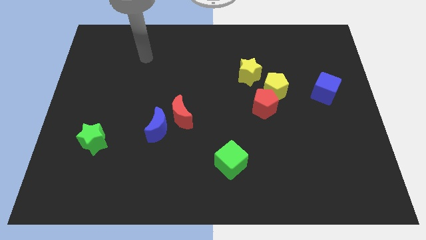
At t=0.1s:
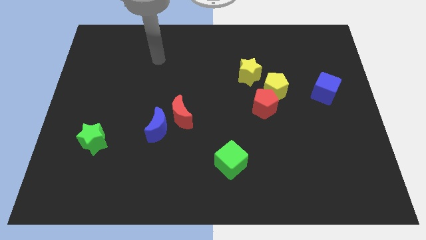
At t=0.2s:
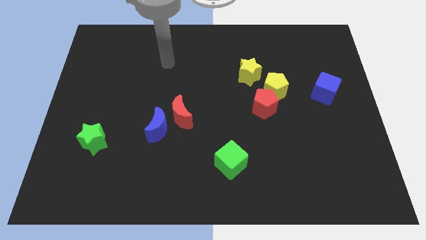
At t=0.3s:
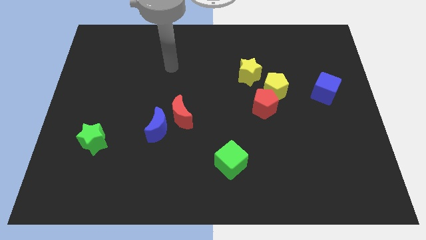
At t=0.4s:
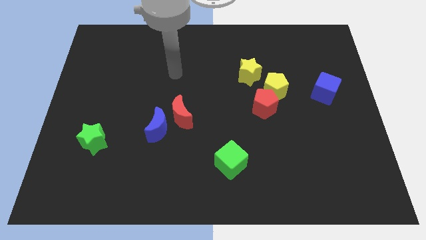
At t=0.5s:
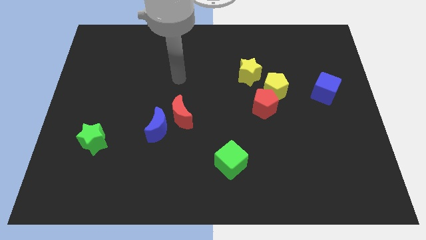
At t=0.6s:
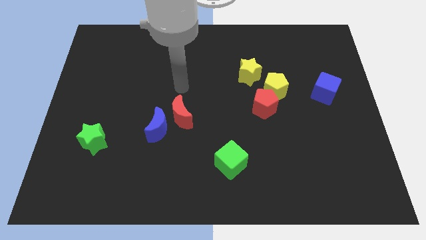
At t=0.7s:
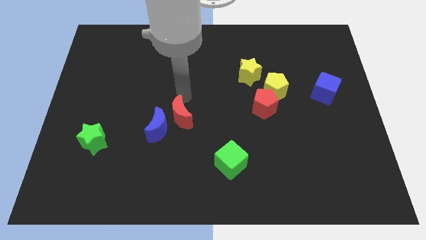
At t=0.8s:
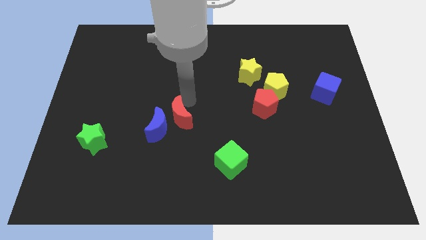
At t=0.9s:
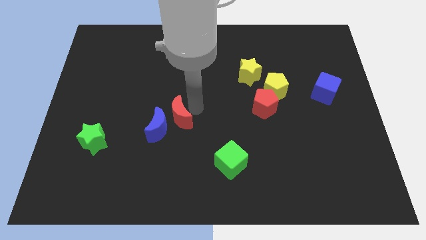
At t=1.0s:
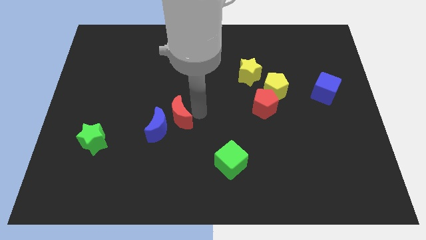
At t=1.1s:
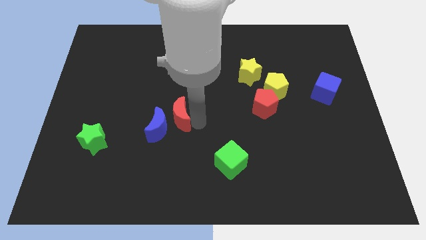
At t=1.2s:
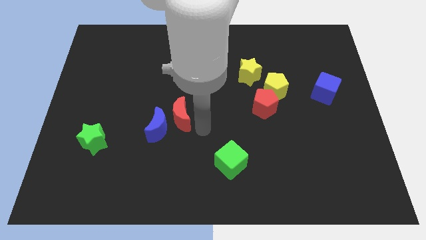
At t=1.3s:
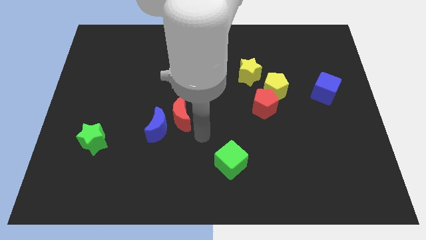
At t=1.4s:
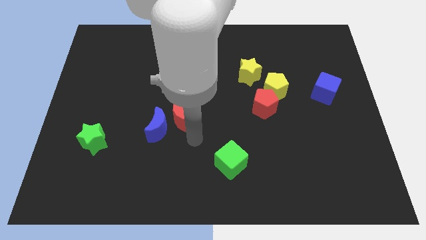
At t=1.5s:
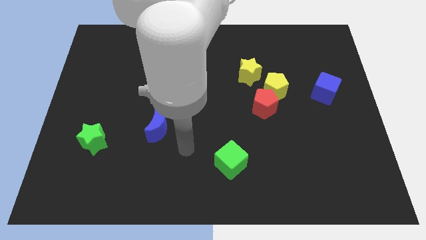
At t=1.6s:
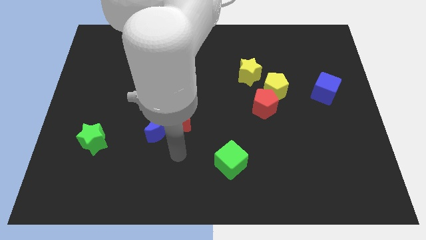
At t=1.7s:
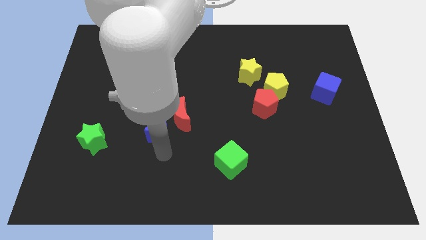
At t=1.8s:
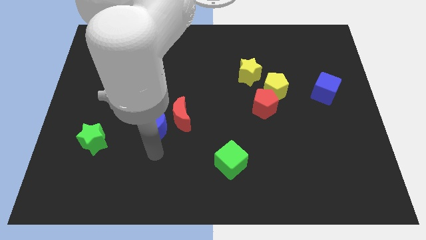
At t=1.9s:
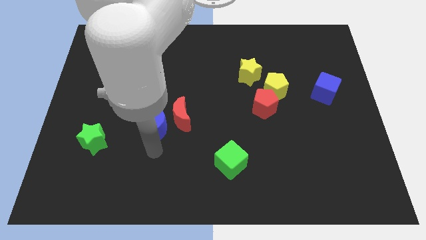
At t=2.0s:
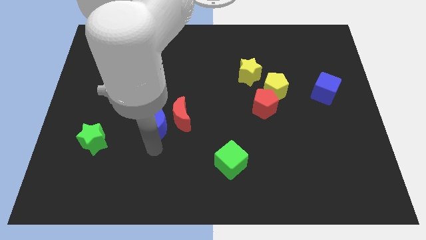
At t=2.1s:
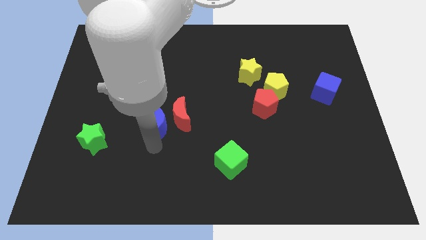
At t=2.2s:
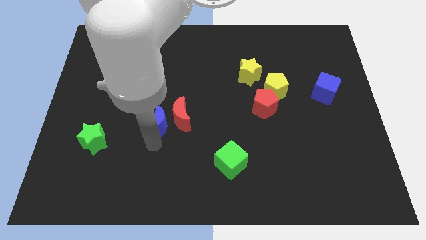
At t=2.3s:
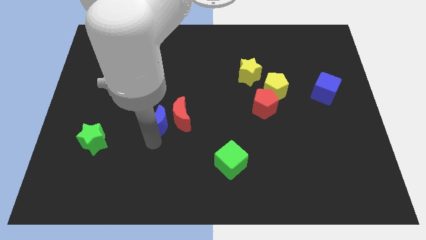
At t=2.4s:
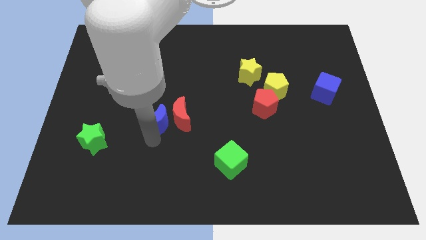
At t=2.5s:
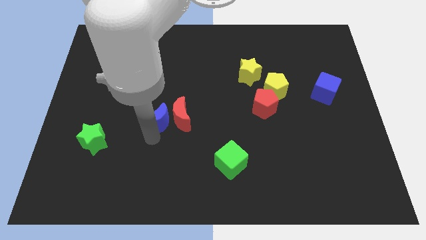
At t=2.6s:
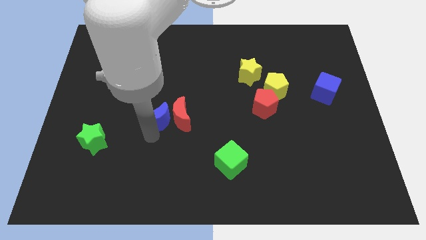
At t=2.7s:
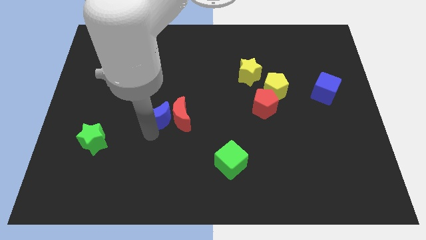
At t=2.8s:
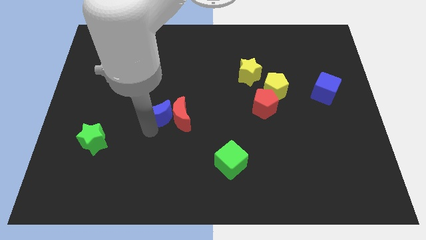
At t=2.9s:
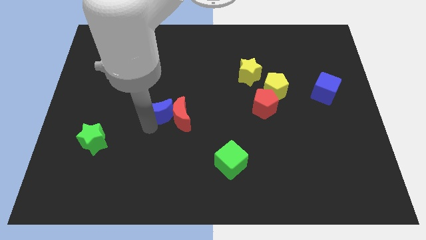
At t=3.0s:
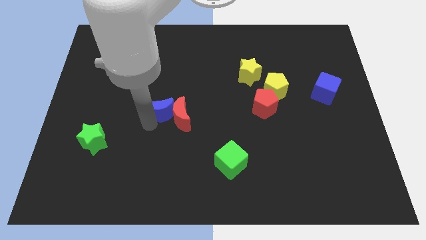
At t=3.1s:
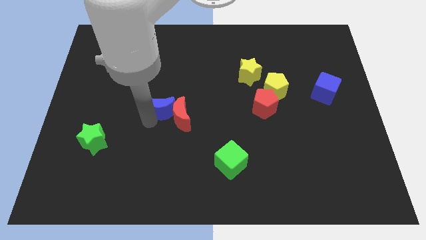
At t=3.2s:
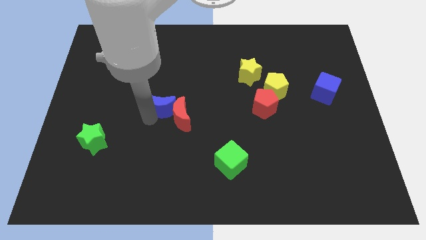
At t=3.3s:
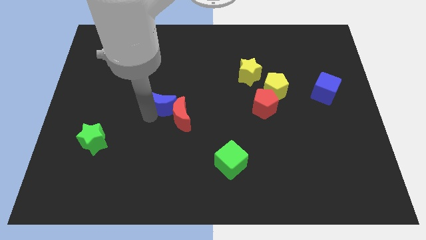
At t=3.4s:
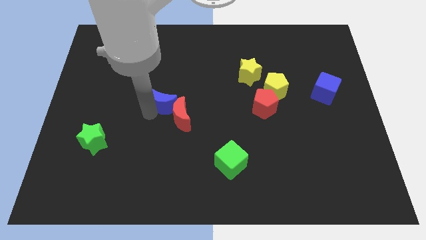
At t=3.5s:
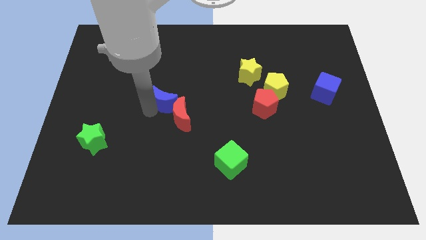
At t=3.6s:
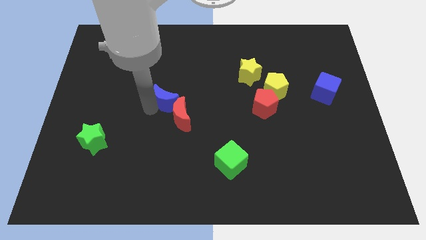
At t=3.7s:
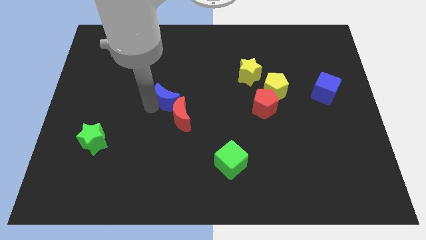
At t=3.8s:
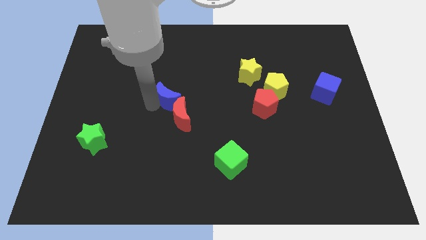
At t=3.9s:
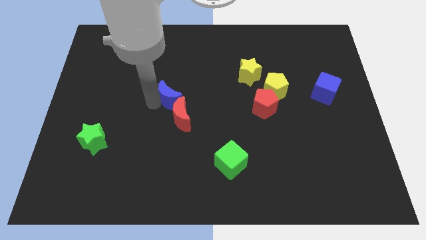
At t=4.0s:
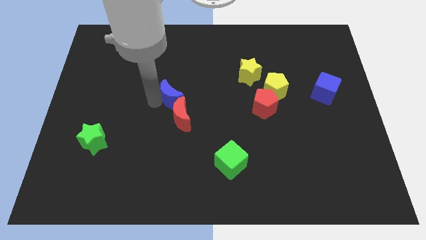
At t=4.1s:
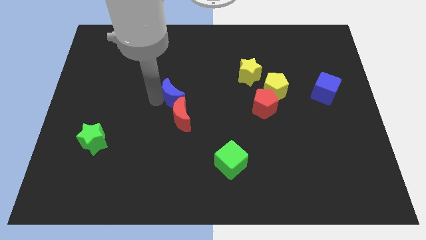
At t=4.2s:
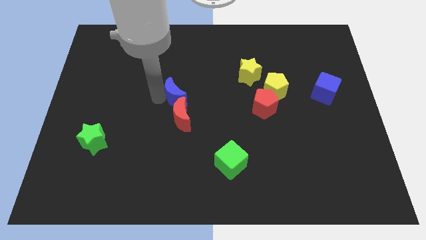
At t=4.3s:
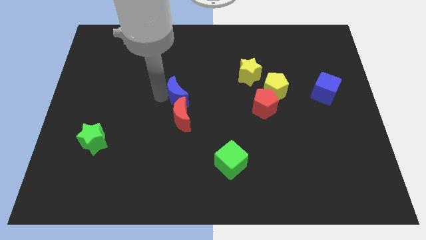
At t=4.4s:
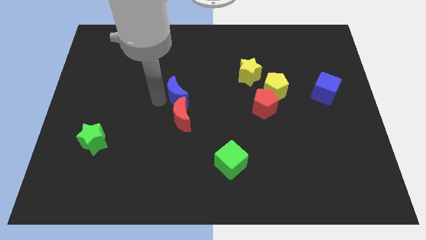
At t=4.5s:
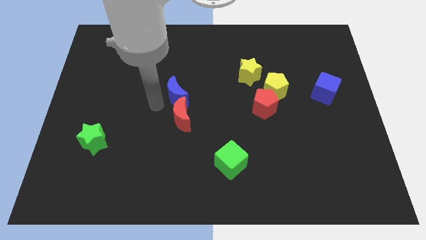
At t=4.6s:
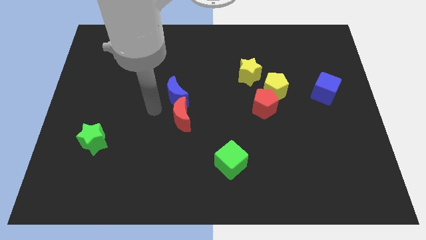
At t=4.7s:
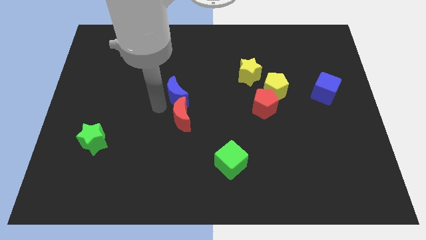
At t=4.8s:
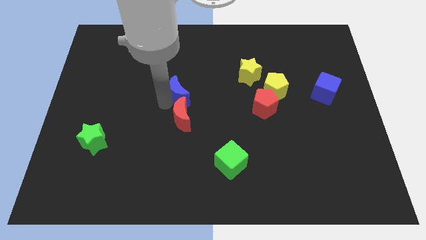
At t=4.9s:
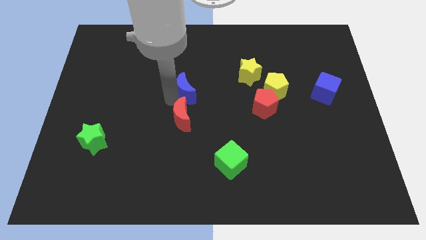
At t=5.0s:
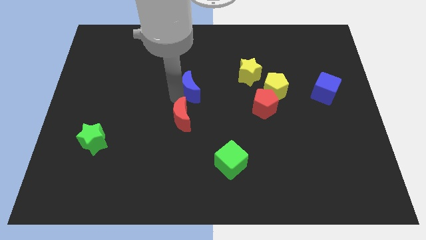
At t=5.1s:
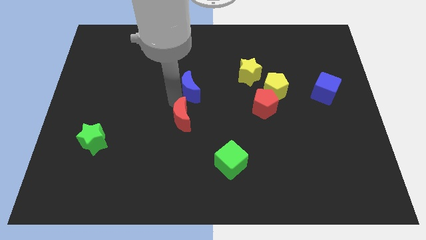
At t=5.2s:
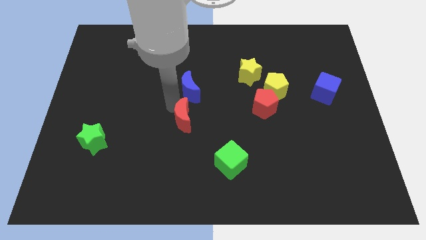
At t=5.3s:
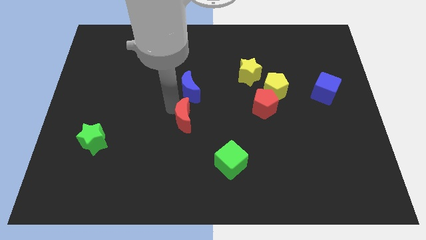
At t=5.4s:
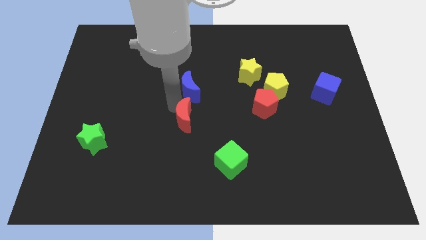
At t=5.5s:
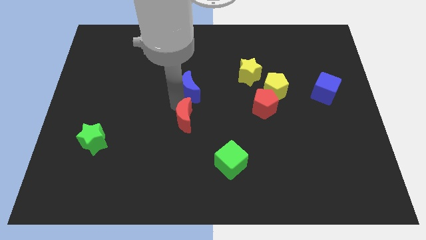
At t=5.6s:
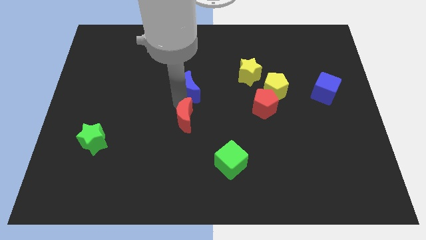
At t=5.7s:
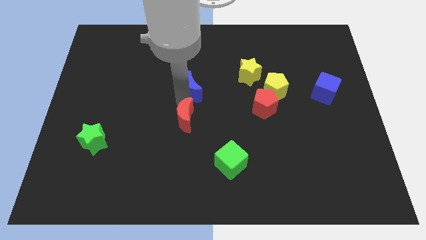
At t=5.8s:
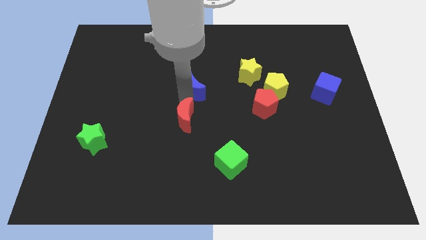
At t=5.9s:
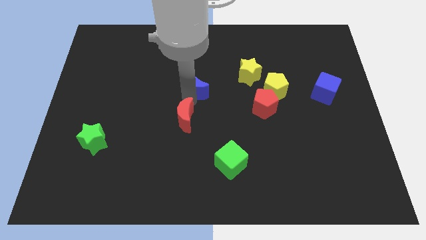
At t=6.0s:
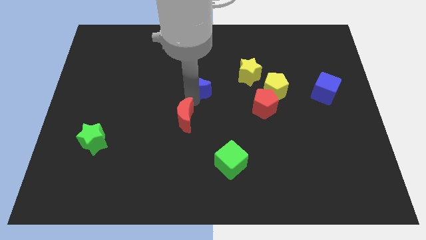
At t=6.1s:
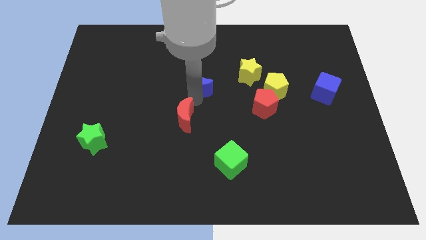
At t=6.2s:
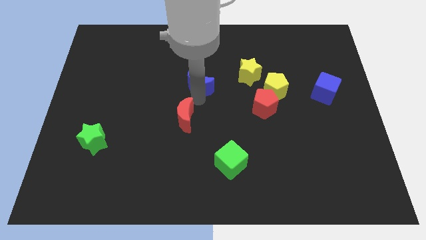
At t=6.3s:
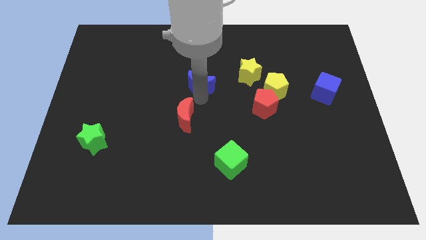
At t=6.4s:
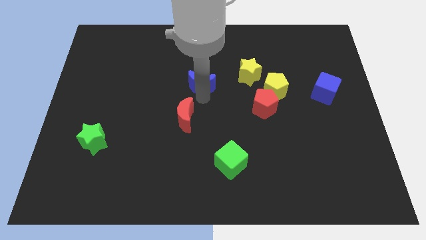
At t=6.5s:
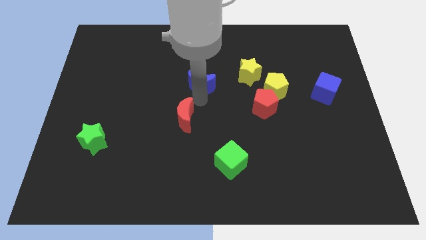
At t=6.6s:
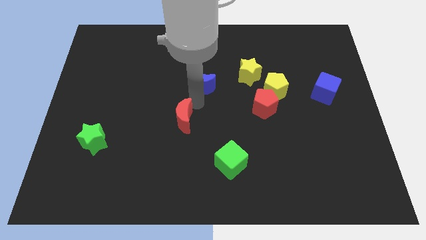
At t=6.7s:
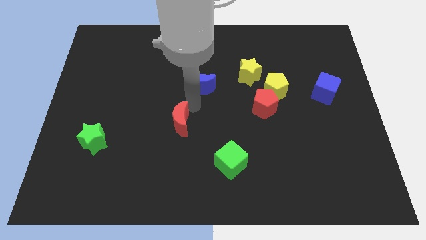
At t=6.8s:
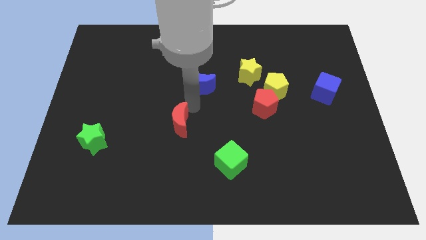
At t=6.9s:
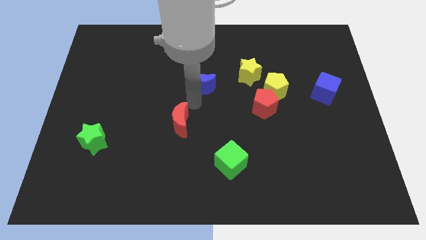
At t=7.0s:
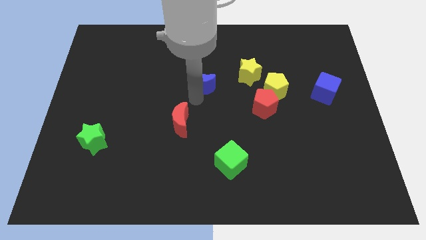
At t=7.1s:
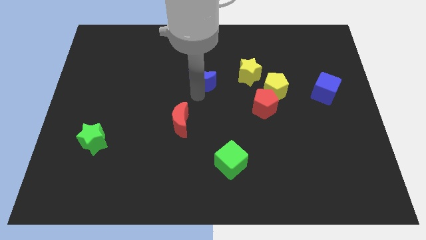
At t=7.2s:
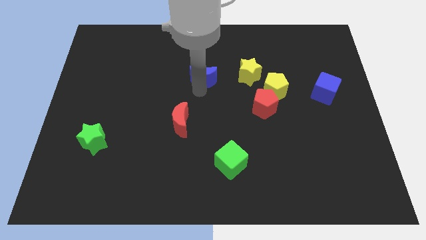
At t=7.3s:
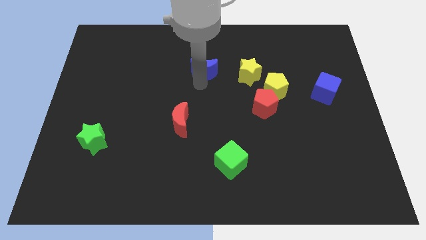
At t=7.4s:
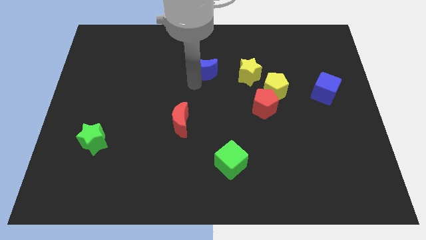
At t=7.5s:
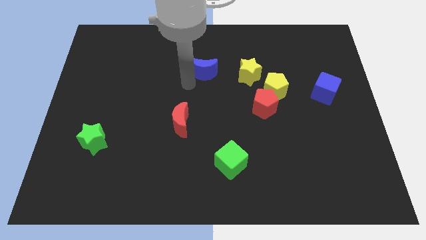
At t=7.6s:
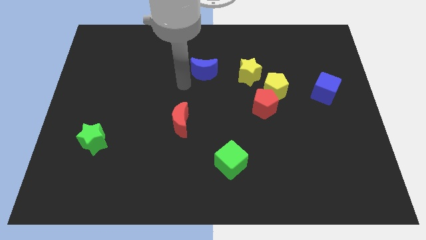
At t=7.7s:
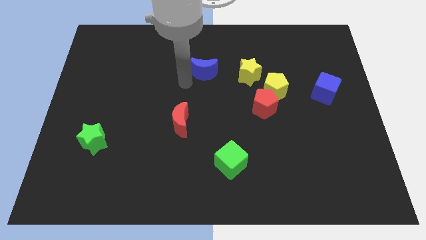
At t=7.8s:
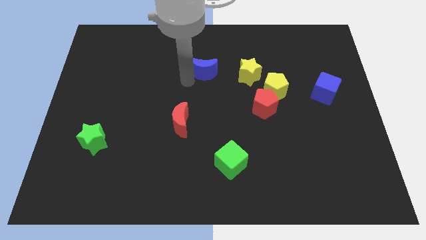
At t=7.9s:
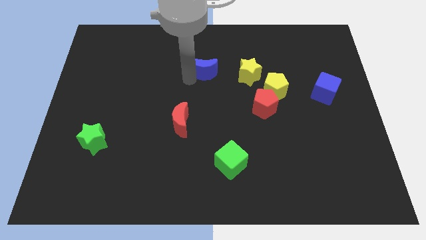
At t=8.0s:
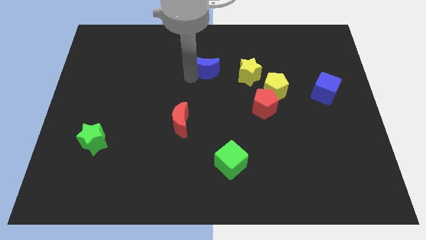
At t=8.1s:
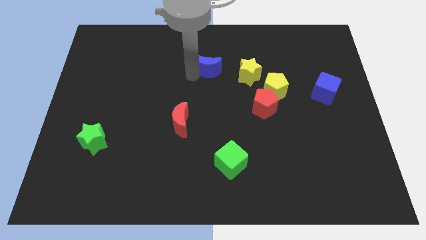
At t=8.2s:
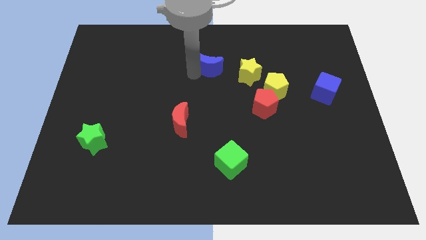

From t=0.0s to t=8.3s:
slide the blue moon diagonally up and to the right
